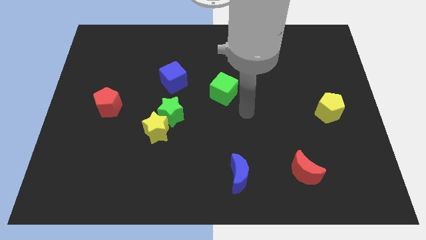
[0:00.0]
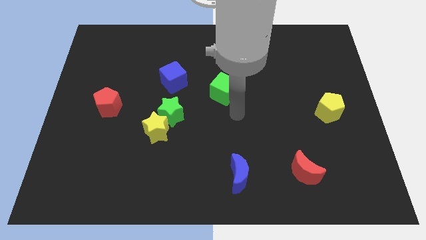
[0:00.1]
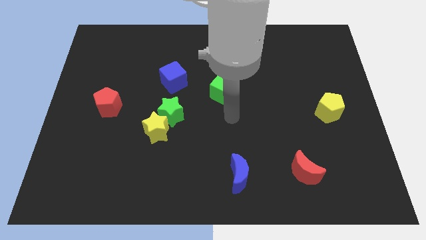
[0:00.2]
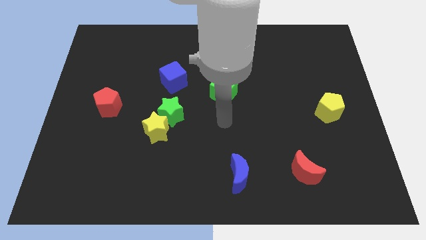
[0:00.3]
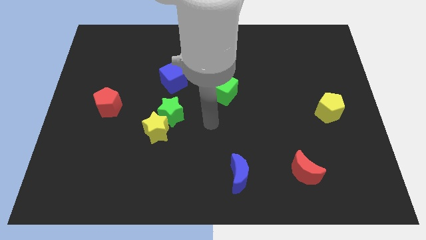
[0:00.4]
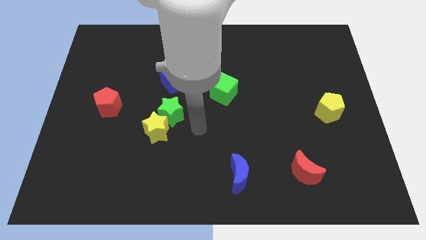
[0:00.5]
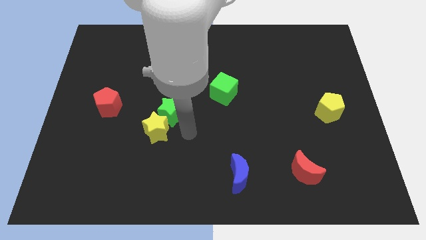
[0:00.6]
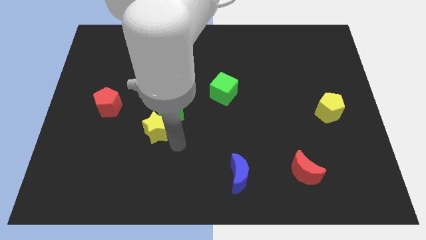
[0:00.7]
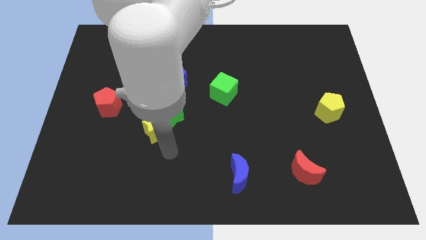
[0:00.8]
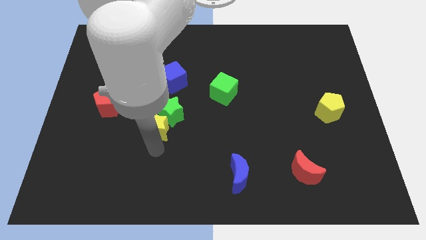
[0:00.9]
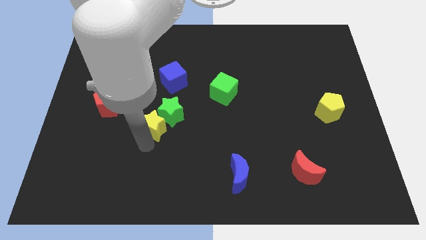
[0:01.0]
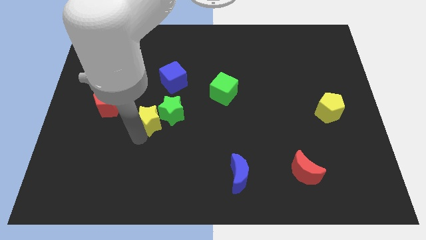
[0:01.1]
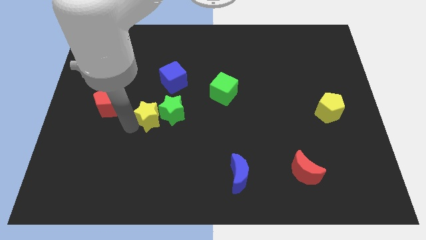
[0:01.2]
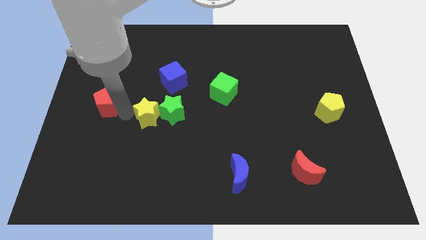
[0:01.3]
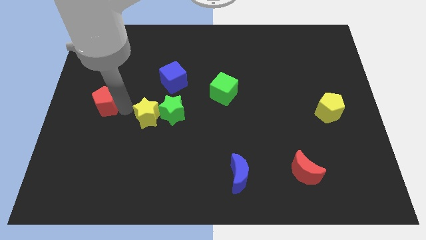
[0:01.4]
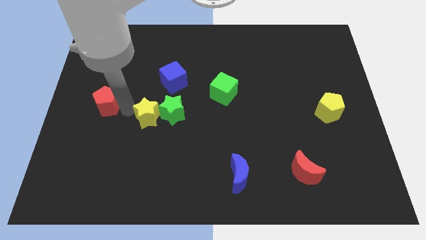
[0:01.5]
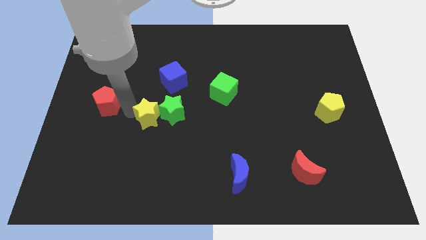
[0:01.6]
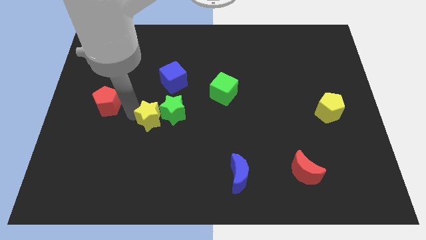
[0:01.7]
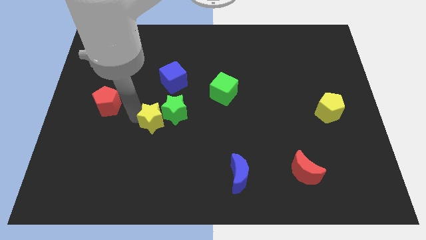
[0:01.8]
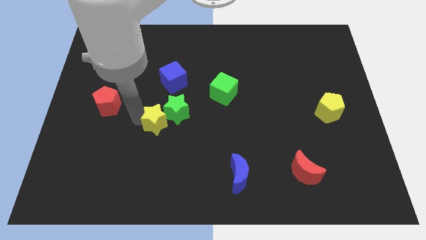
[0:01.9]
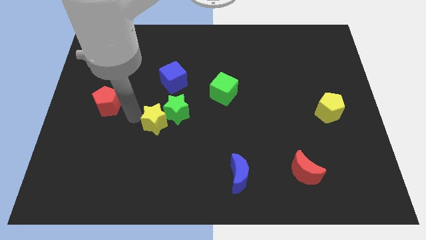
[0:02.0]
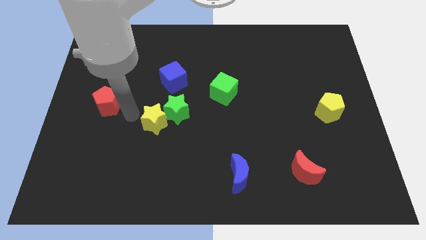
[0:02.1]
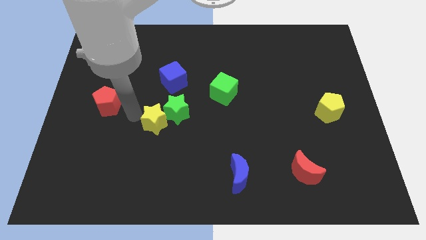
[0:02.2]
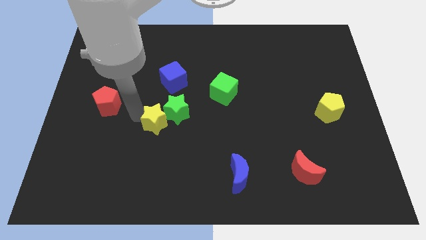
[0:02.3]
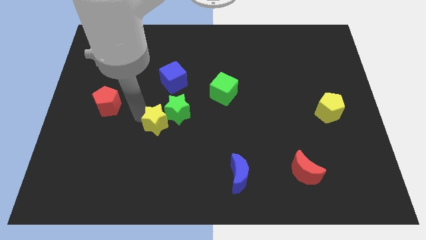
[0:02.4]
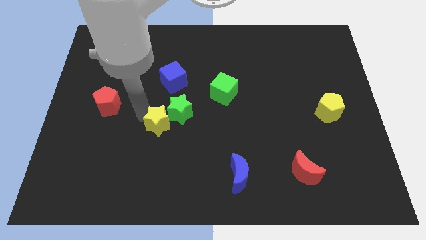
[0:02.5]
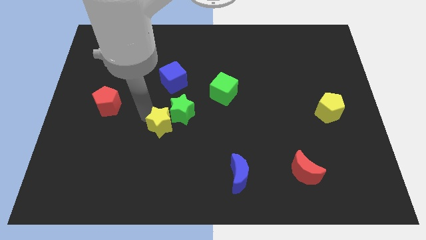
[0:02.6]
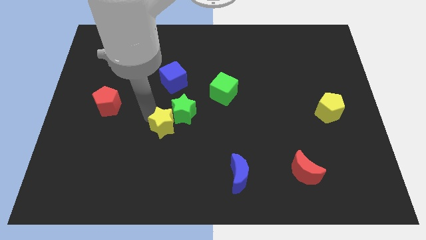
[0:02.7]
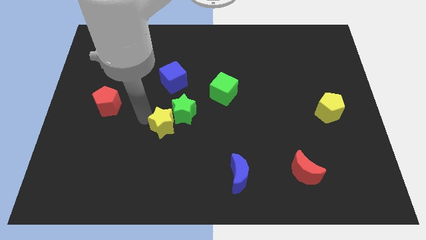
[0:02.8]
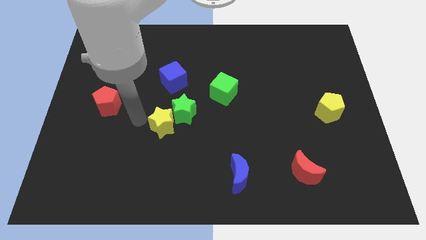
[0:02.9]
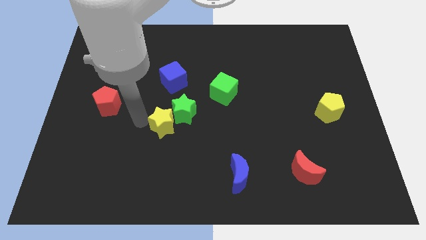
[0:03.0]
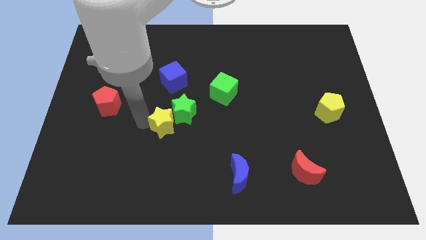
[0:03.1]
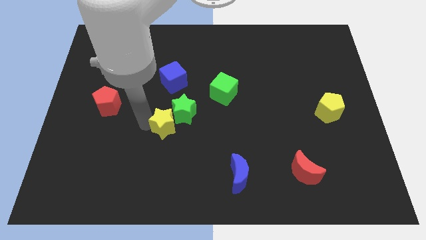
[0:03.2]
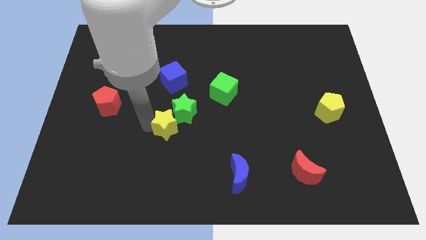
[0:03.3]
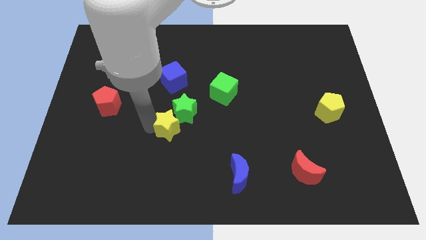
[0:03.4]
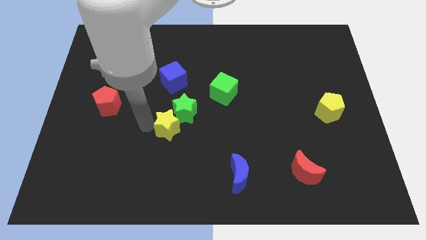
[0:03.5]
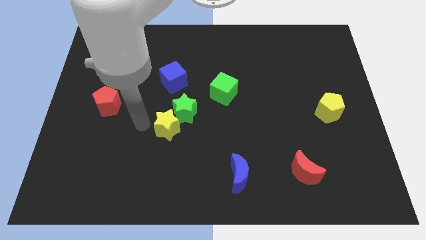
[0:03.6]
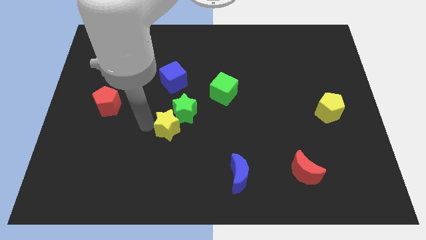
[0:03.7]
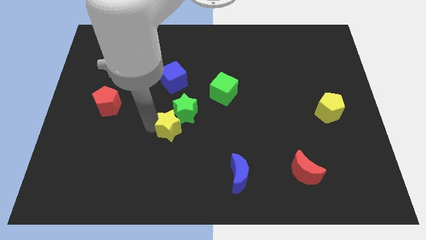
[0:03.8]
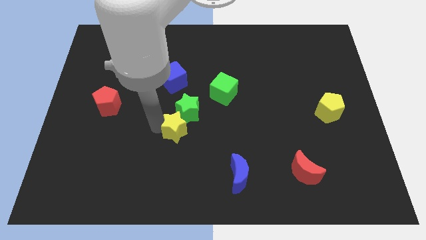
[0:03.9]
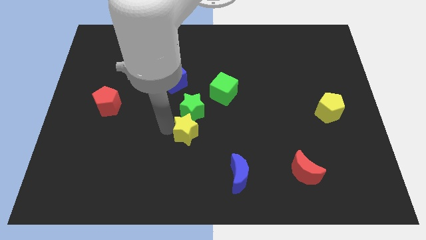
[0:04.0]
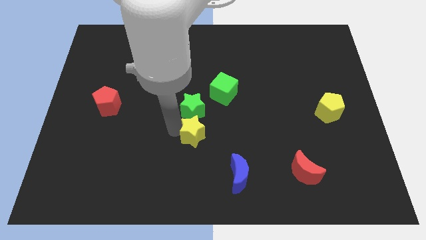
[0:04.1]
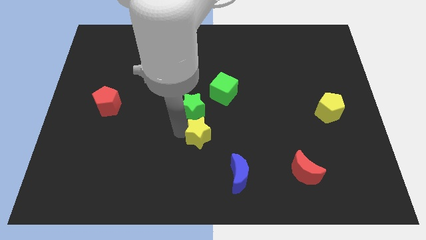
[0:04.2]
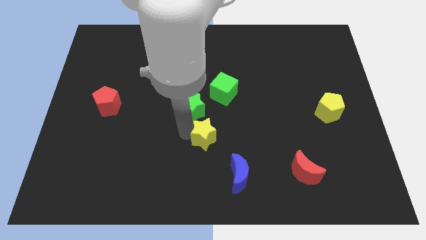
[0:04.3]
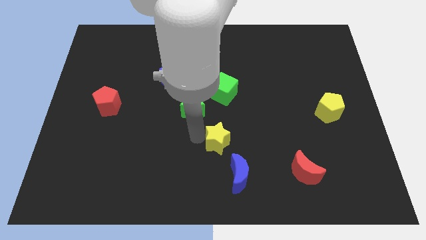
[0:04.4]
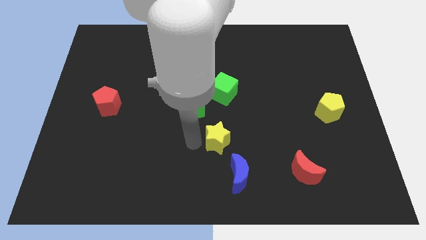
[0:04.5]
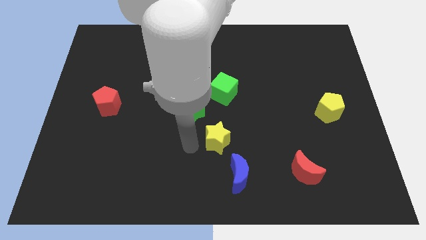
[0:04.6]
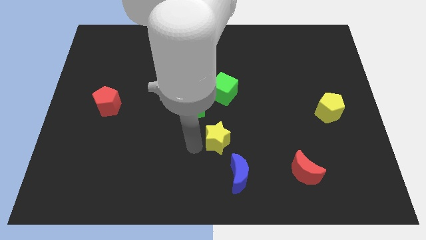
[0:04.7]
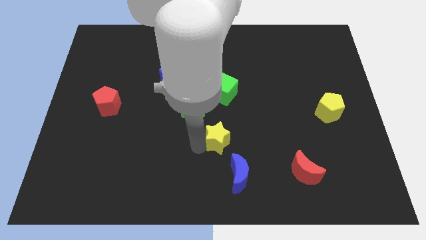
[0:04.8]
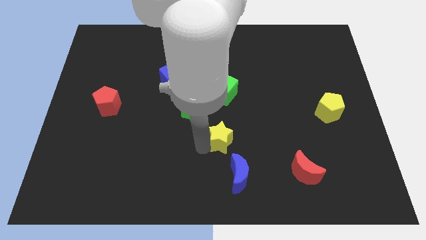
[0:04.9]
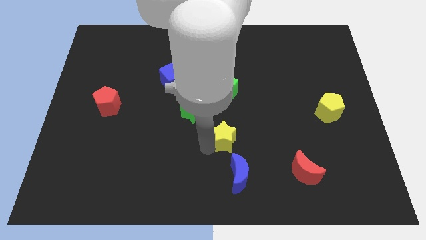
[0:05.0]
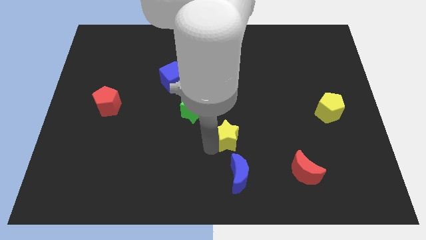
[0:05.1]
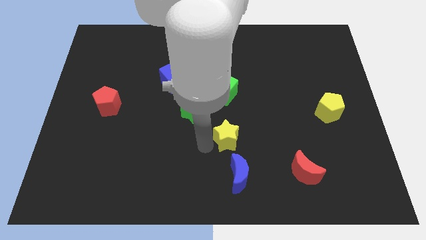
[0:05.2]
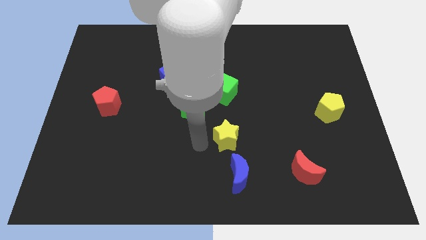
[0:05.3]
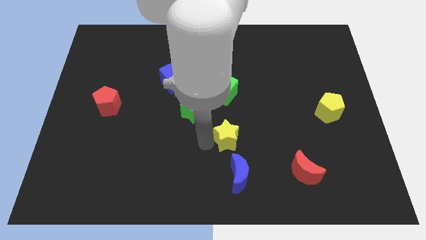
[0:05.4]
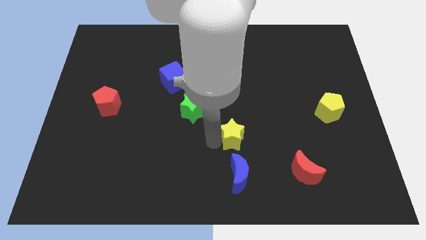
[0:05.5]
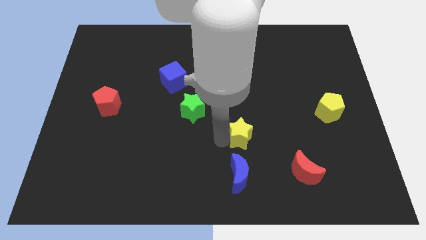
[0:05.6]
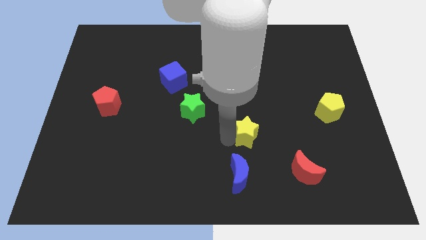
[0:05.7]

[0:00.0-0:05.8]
move the yellow star to the right

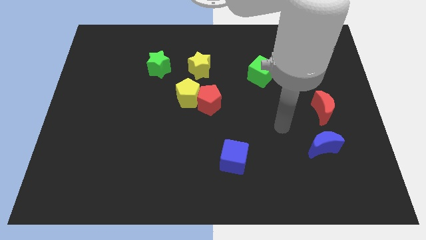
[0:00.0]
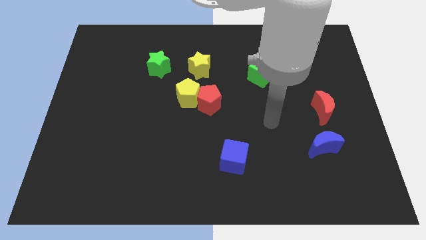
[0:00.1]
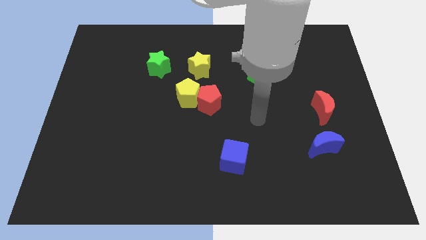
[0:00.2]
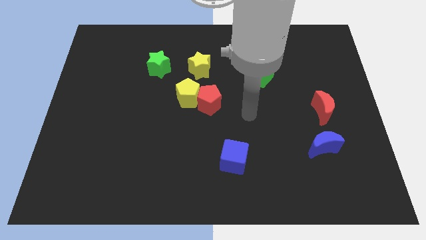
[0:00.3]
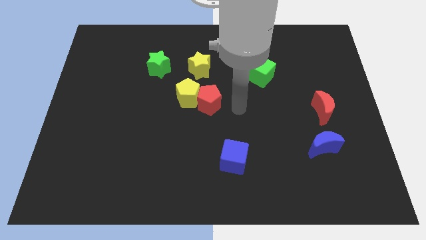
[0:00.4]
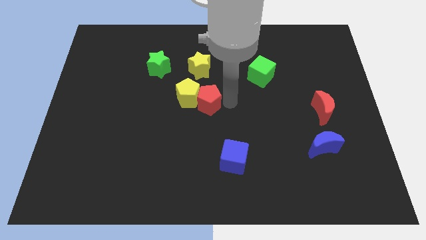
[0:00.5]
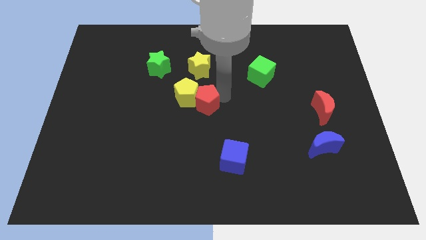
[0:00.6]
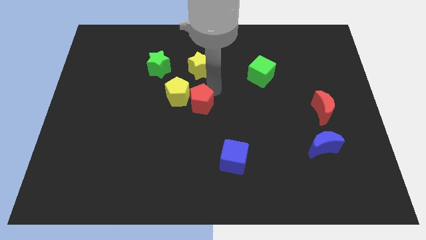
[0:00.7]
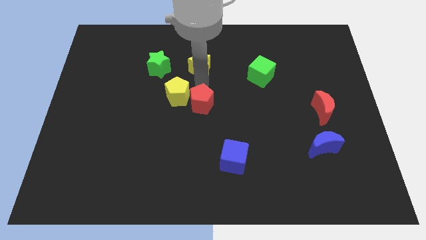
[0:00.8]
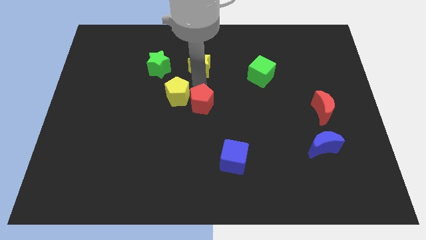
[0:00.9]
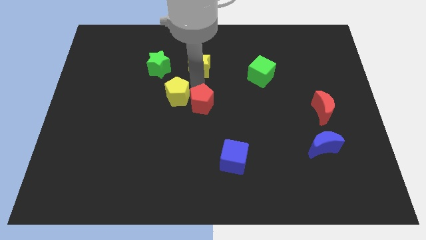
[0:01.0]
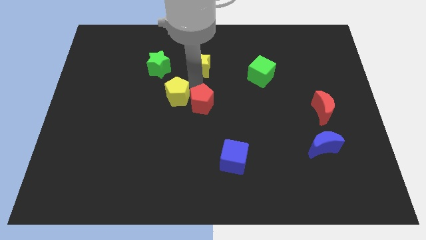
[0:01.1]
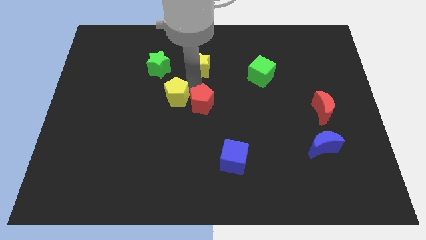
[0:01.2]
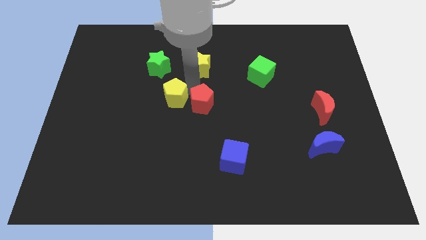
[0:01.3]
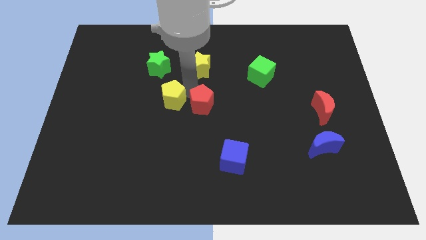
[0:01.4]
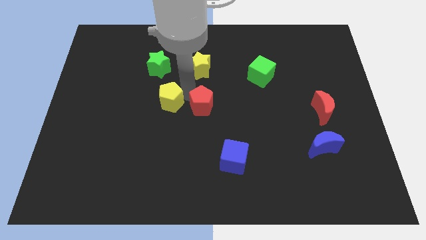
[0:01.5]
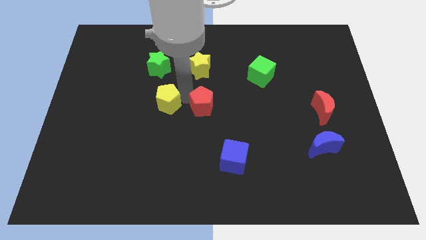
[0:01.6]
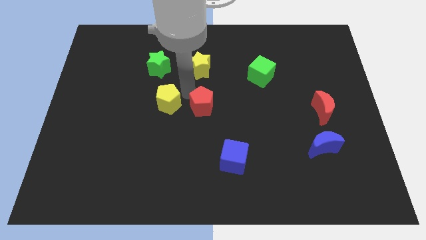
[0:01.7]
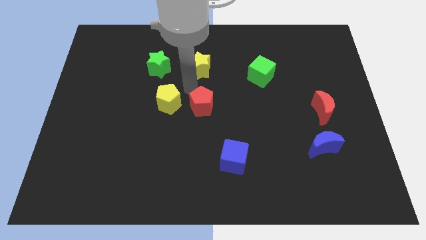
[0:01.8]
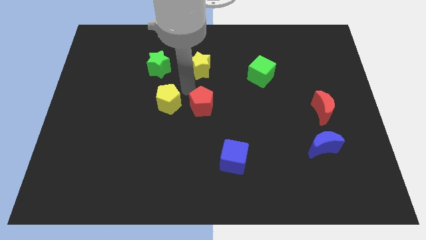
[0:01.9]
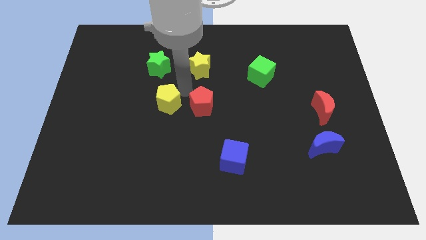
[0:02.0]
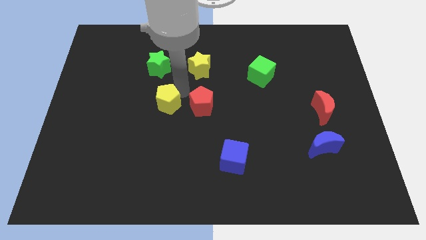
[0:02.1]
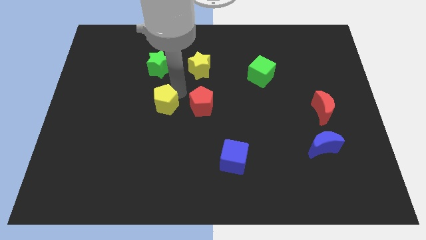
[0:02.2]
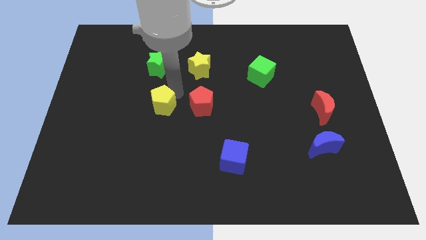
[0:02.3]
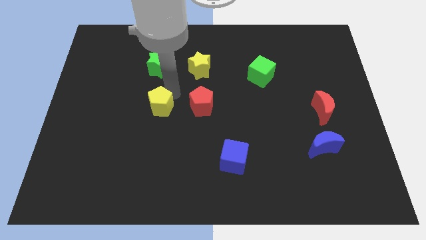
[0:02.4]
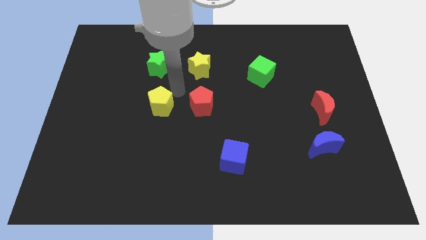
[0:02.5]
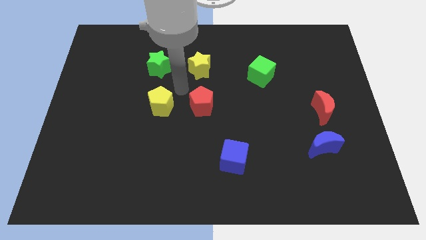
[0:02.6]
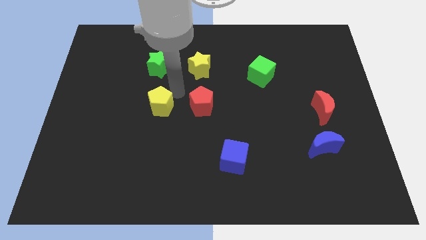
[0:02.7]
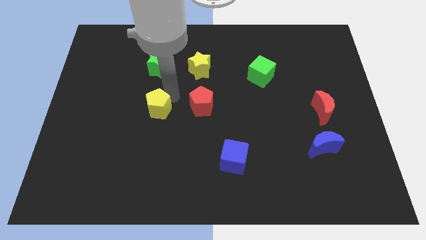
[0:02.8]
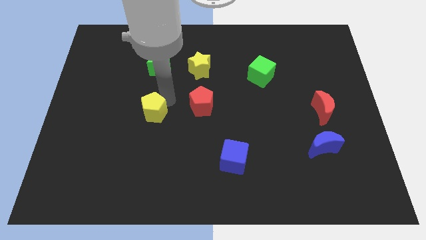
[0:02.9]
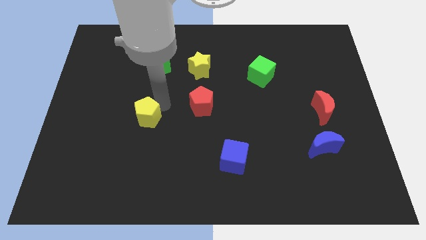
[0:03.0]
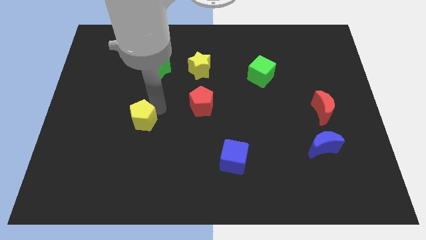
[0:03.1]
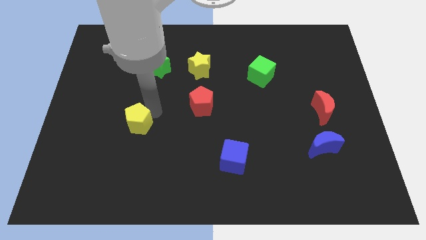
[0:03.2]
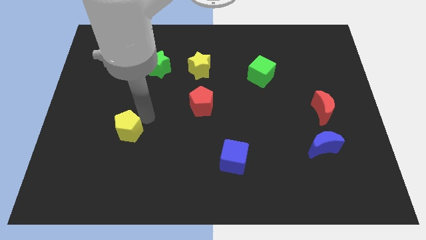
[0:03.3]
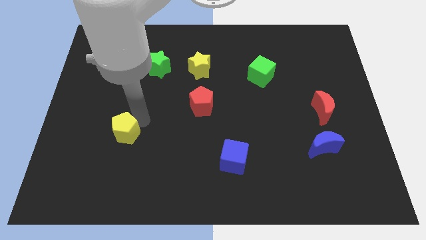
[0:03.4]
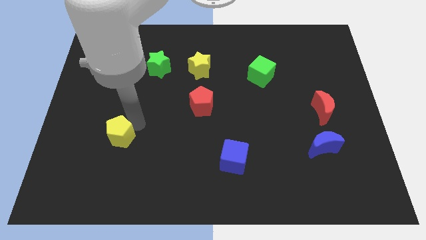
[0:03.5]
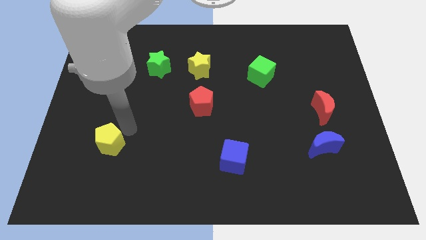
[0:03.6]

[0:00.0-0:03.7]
move the yellow pentagon downwards and then left
